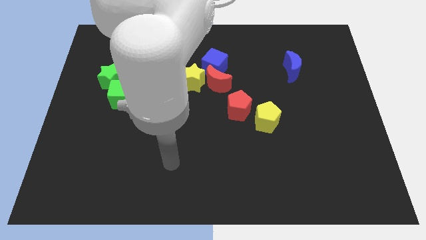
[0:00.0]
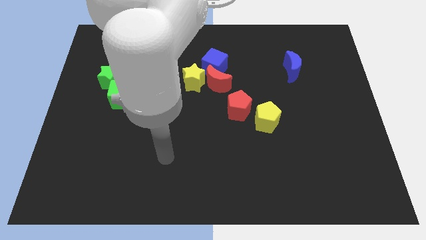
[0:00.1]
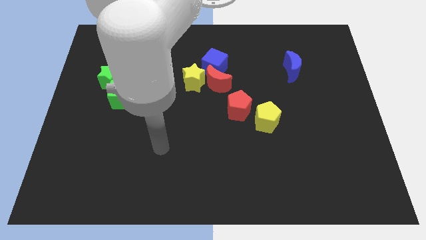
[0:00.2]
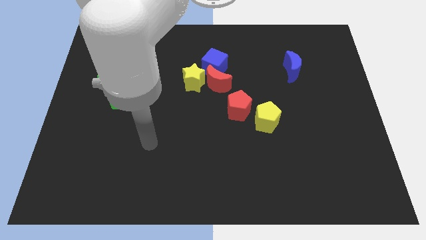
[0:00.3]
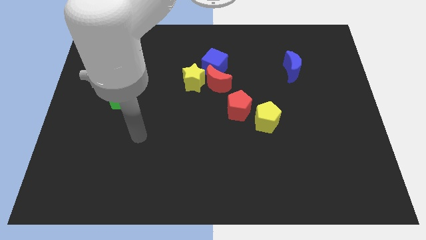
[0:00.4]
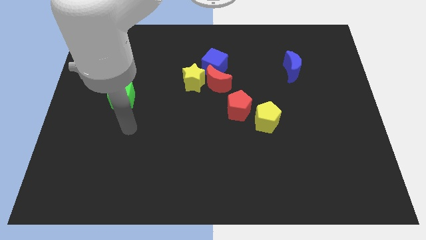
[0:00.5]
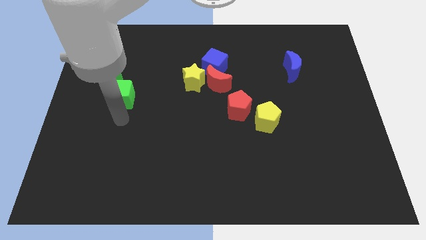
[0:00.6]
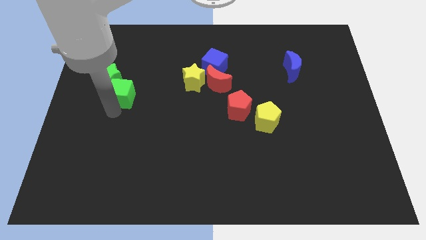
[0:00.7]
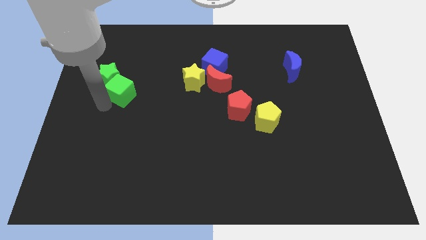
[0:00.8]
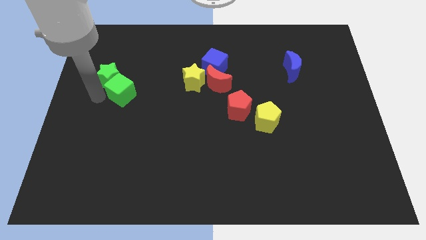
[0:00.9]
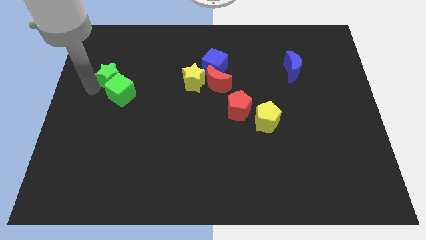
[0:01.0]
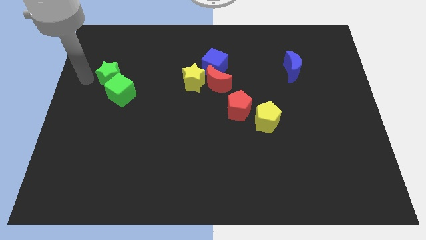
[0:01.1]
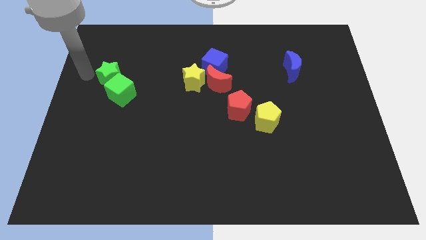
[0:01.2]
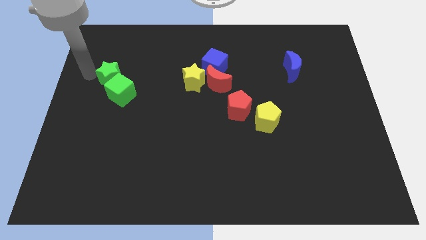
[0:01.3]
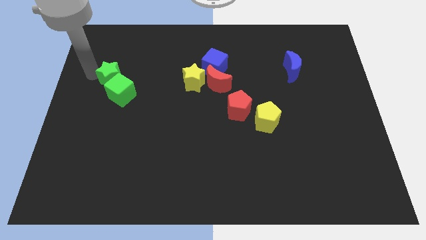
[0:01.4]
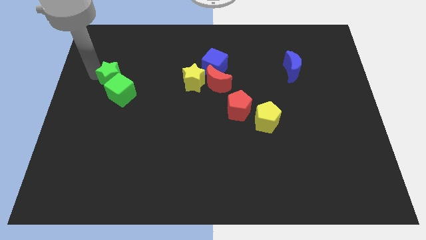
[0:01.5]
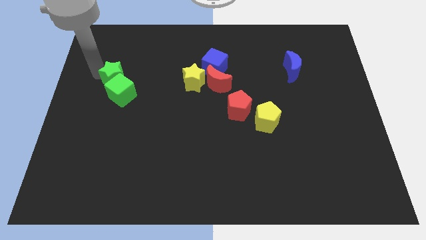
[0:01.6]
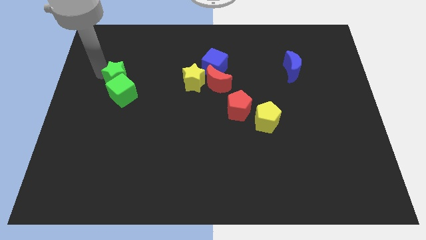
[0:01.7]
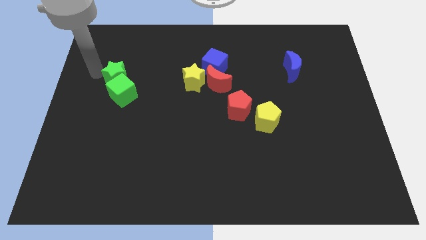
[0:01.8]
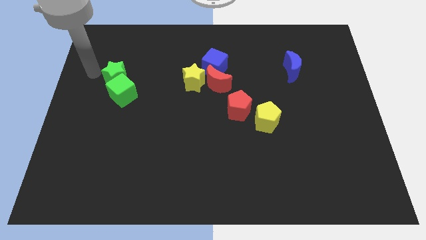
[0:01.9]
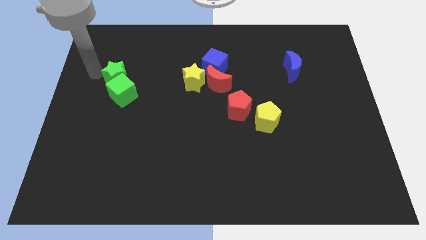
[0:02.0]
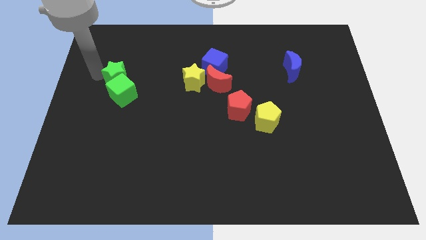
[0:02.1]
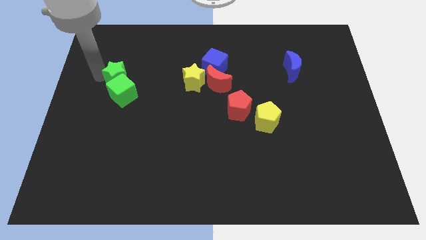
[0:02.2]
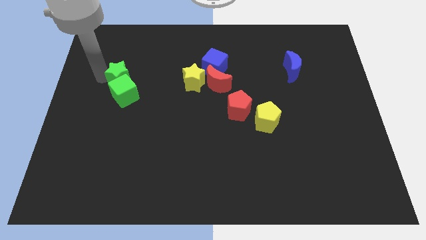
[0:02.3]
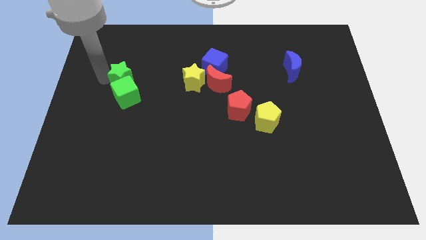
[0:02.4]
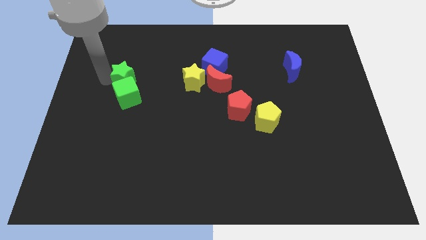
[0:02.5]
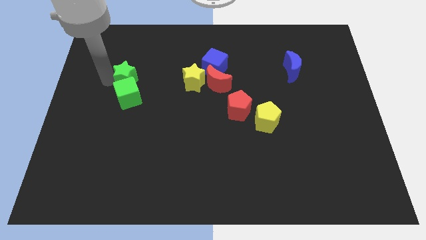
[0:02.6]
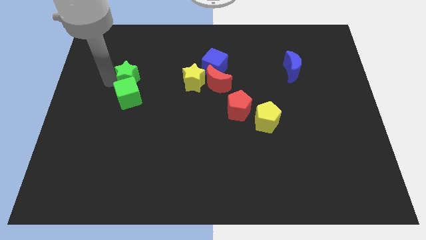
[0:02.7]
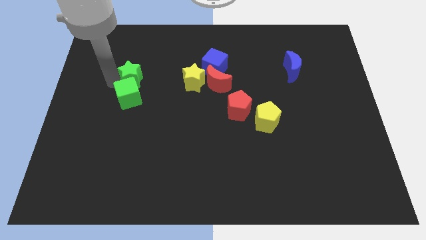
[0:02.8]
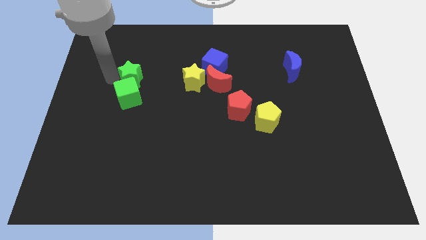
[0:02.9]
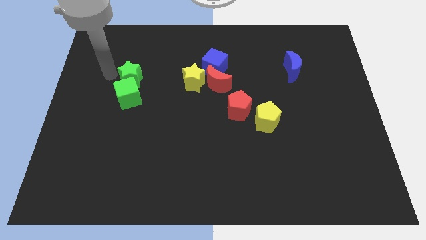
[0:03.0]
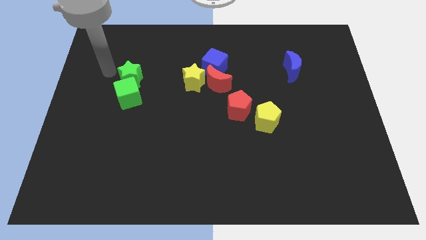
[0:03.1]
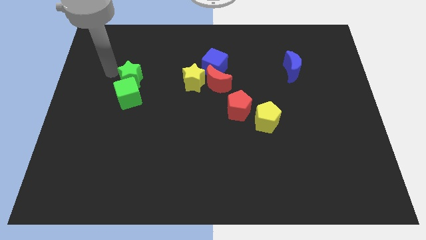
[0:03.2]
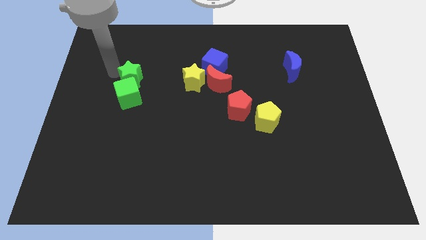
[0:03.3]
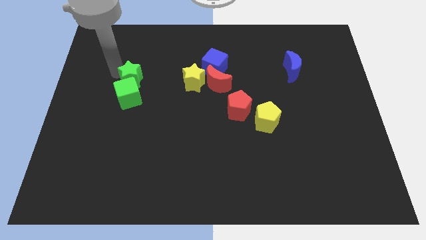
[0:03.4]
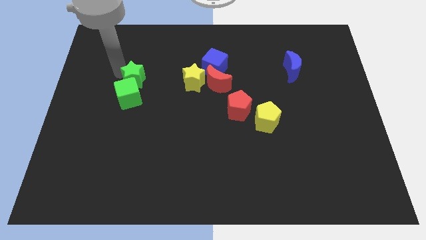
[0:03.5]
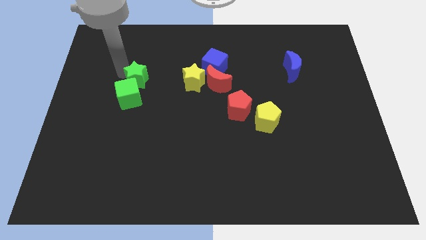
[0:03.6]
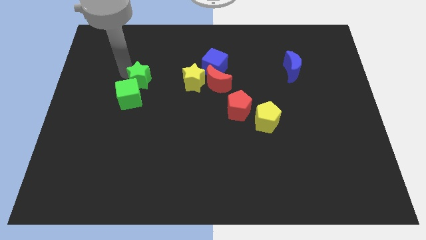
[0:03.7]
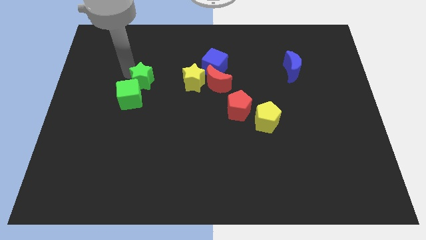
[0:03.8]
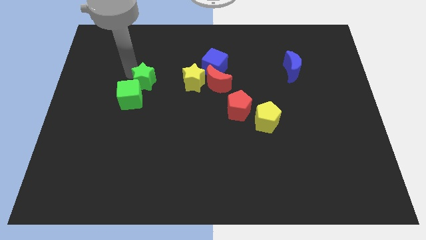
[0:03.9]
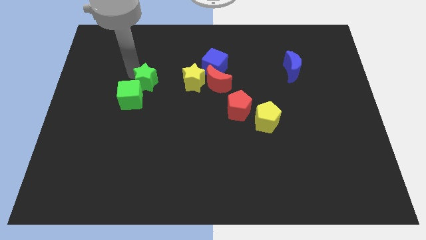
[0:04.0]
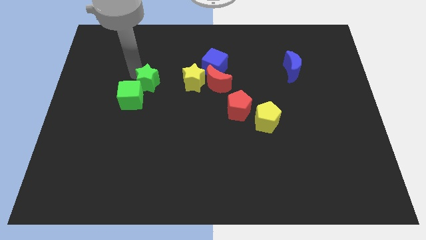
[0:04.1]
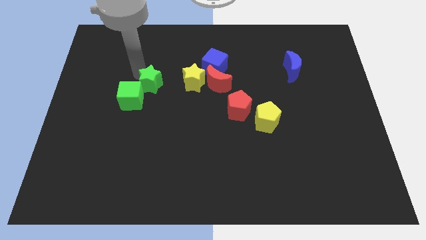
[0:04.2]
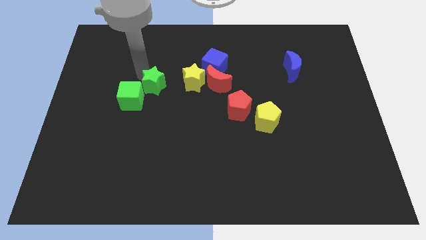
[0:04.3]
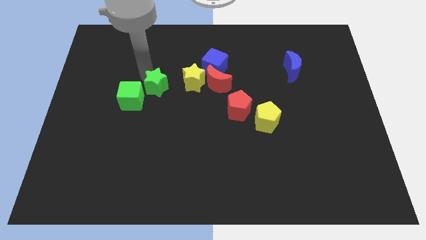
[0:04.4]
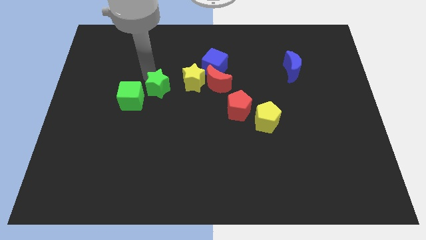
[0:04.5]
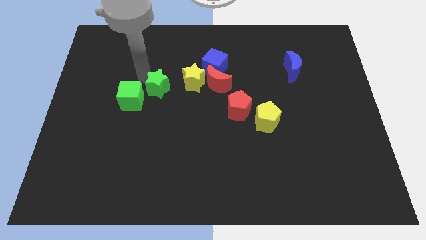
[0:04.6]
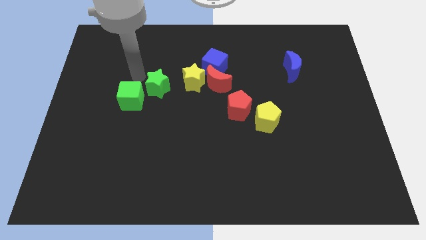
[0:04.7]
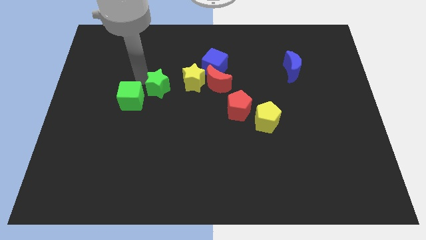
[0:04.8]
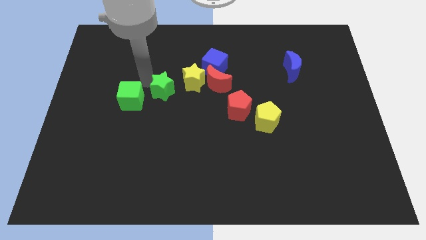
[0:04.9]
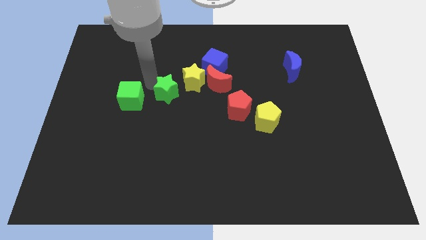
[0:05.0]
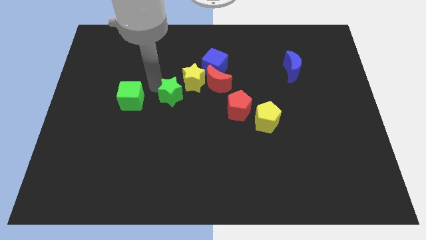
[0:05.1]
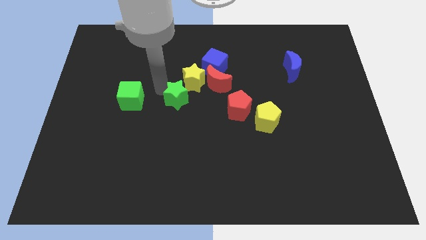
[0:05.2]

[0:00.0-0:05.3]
push the green star left of the red pentagon

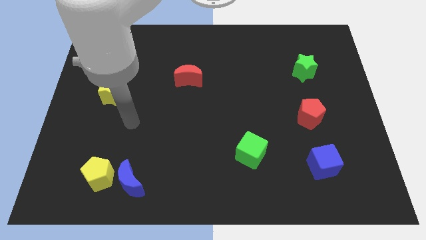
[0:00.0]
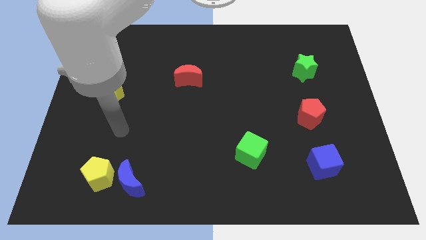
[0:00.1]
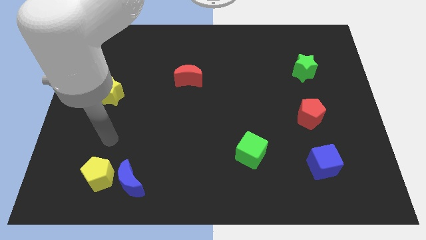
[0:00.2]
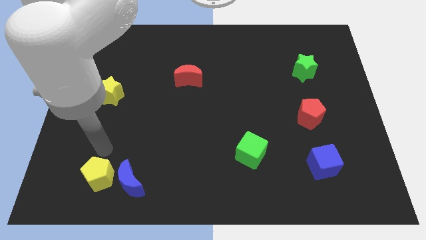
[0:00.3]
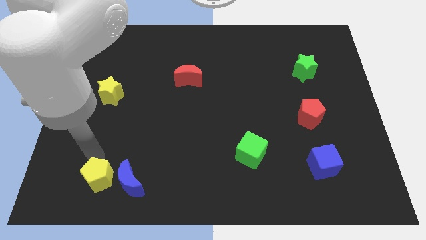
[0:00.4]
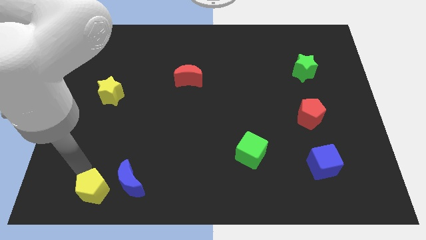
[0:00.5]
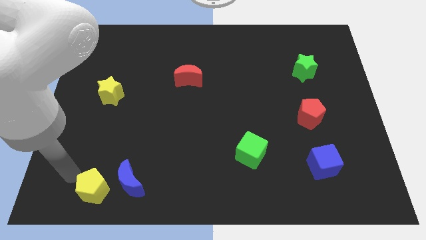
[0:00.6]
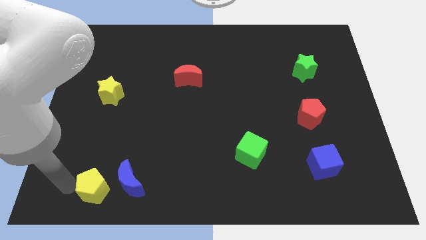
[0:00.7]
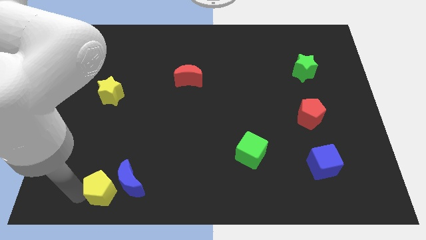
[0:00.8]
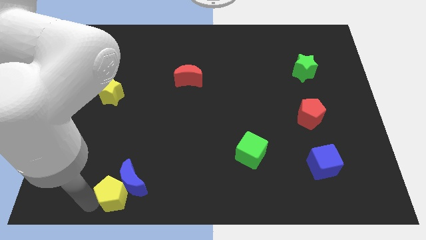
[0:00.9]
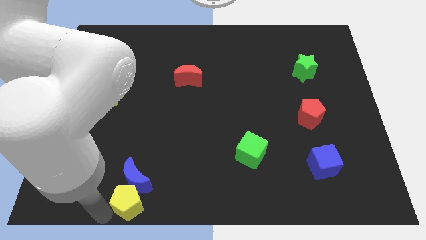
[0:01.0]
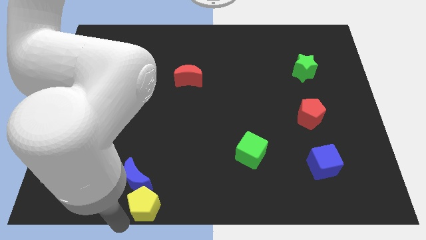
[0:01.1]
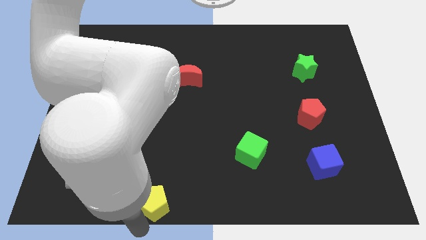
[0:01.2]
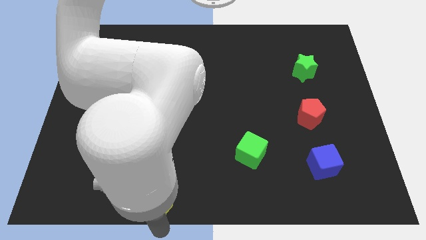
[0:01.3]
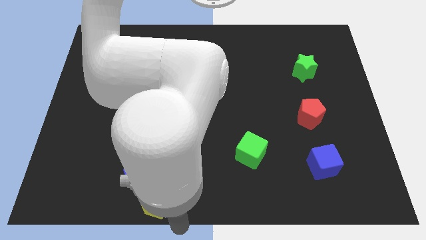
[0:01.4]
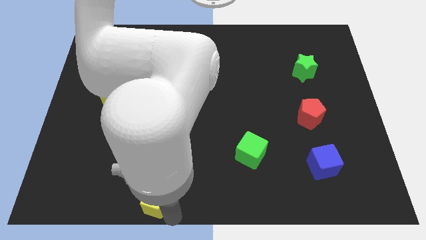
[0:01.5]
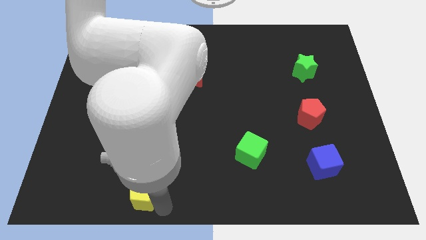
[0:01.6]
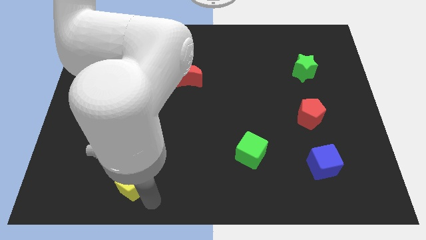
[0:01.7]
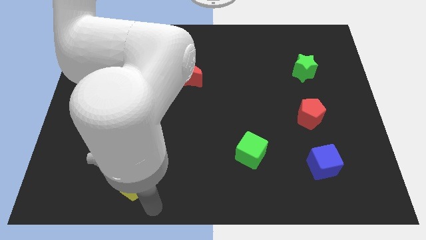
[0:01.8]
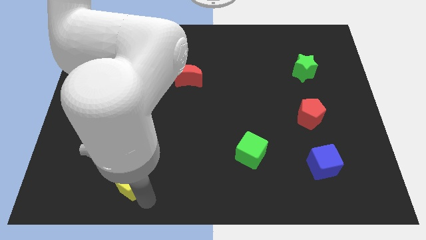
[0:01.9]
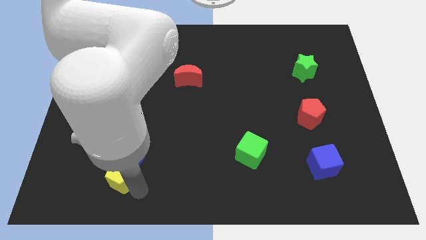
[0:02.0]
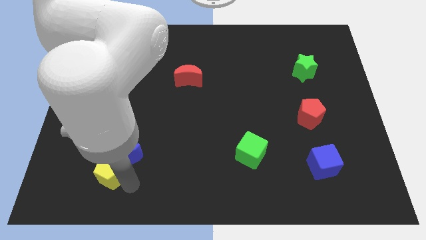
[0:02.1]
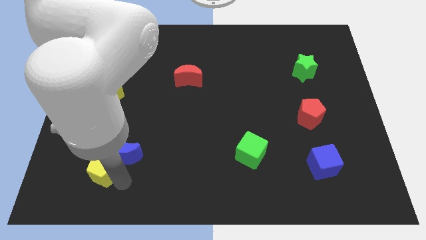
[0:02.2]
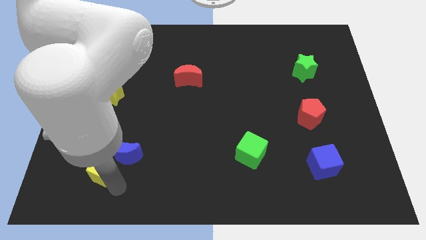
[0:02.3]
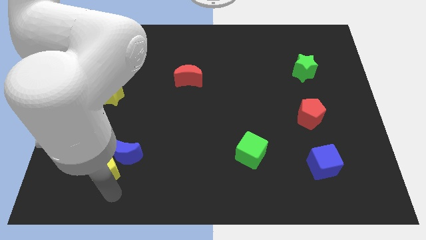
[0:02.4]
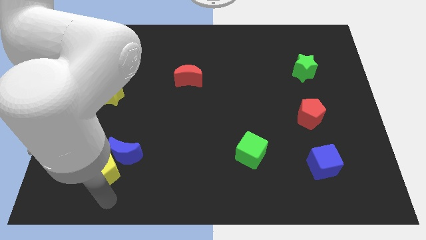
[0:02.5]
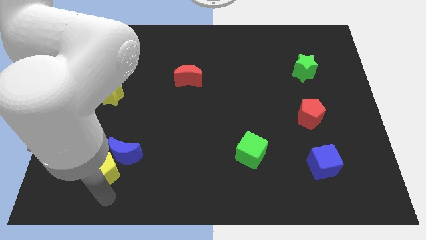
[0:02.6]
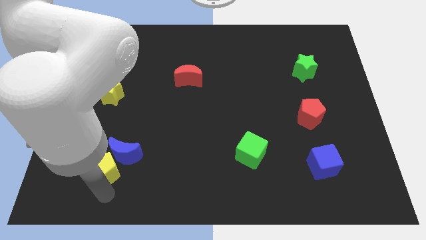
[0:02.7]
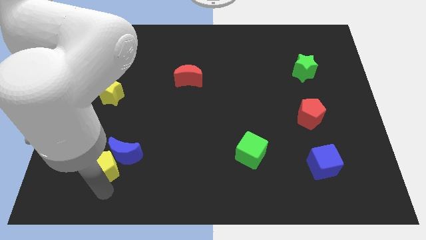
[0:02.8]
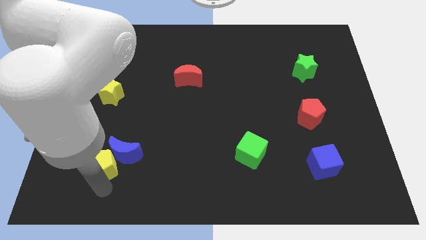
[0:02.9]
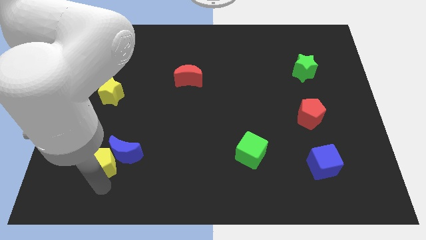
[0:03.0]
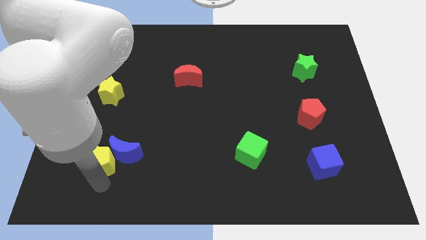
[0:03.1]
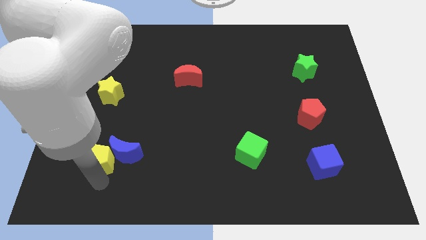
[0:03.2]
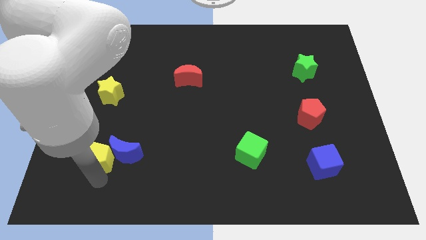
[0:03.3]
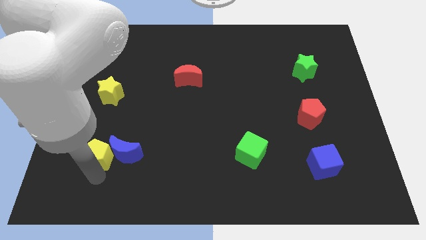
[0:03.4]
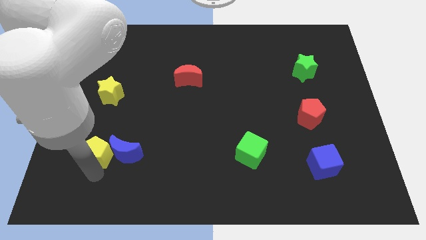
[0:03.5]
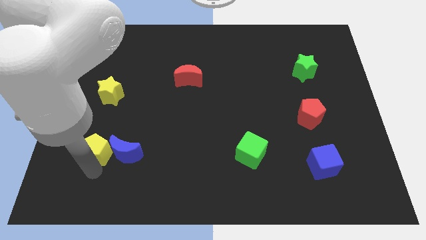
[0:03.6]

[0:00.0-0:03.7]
put the yellow pentagon to the bottom of the yellow star
